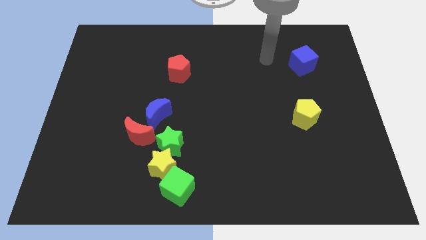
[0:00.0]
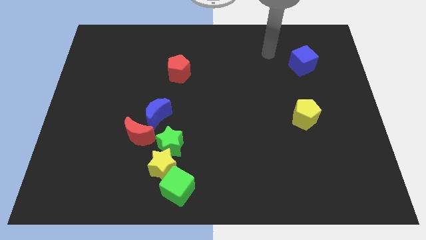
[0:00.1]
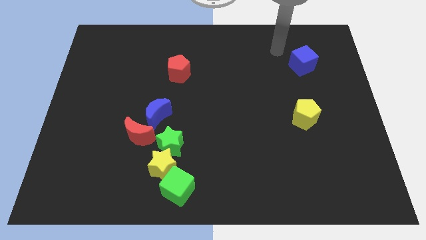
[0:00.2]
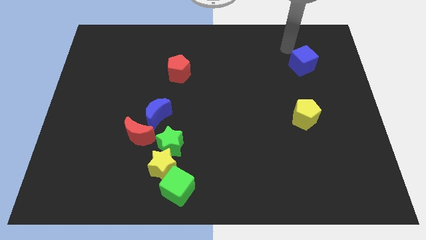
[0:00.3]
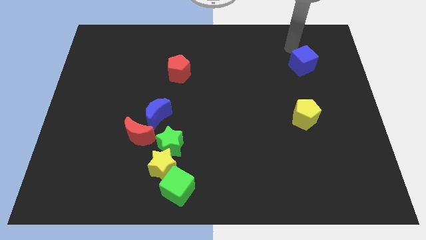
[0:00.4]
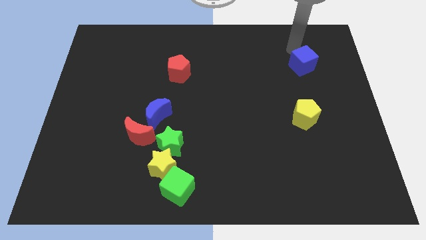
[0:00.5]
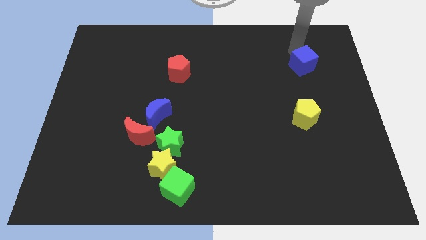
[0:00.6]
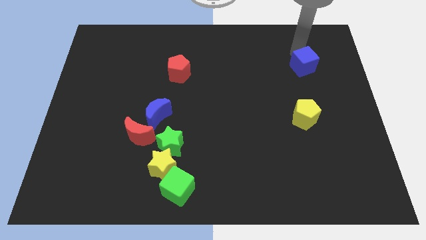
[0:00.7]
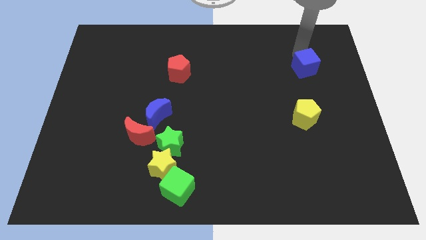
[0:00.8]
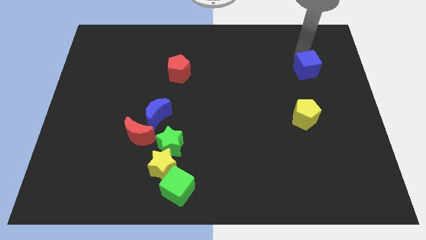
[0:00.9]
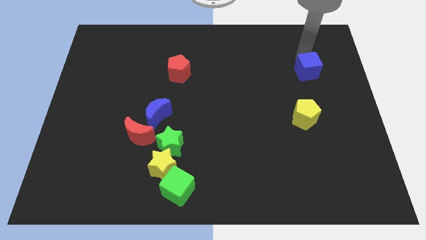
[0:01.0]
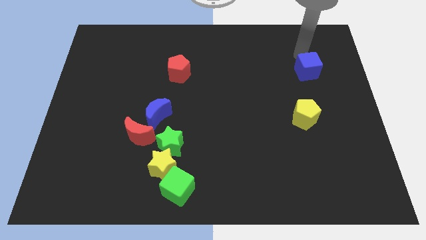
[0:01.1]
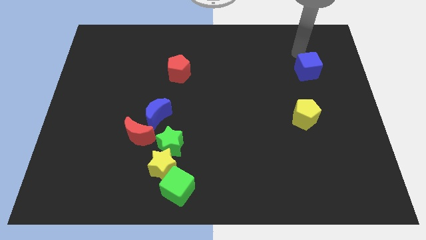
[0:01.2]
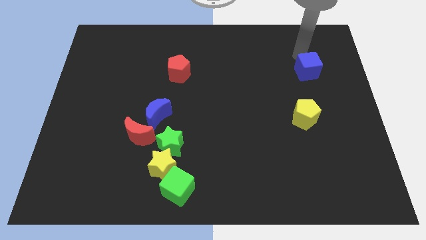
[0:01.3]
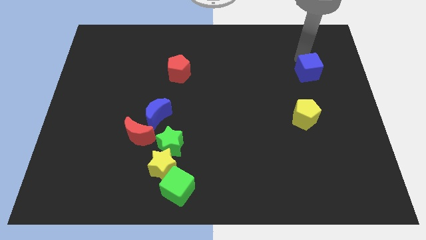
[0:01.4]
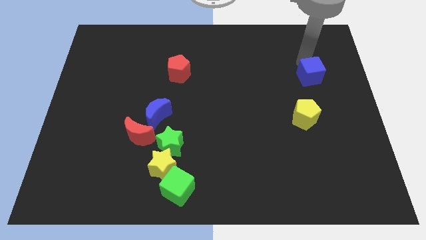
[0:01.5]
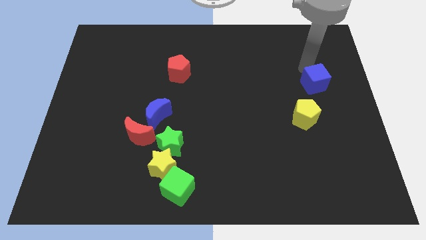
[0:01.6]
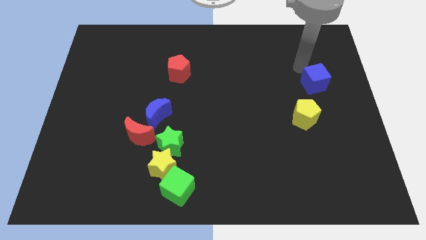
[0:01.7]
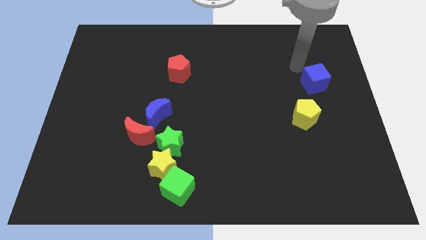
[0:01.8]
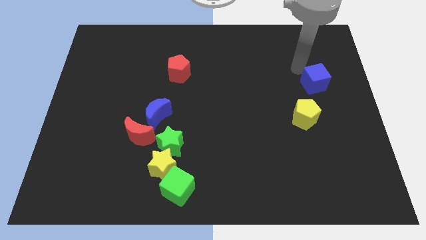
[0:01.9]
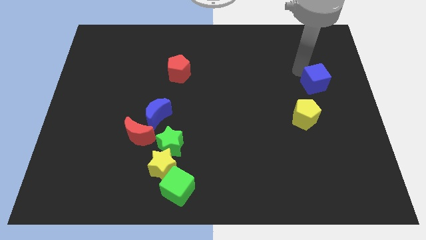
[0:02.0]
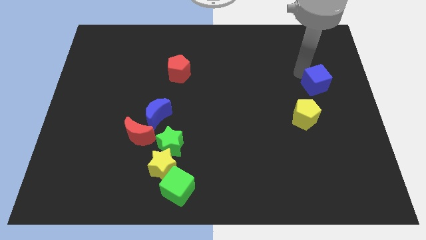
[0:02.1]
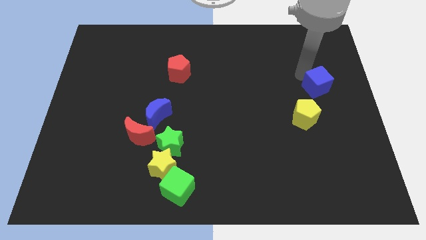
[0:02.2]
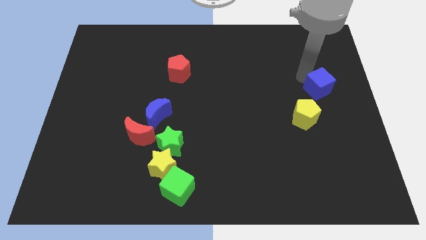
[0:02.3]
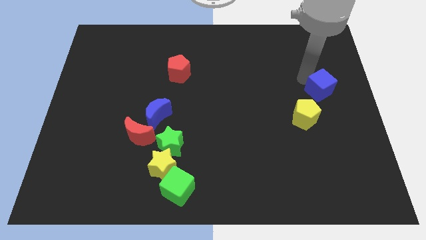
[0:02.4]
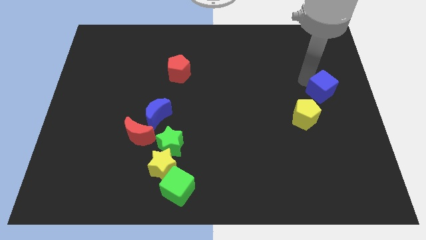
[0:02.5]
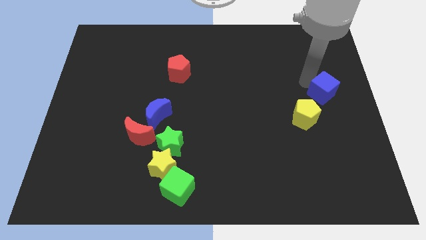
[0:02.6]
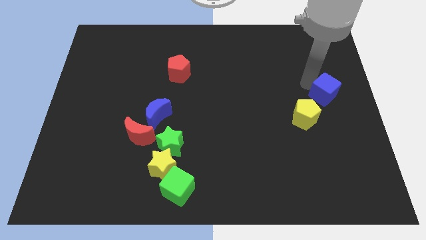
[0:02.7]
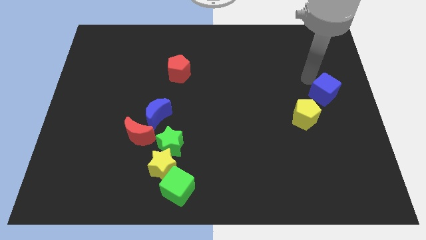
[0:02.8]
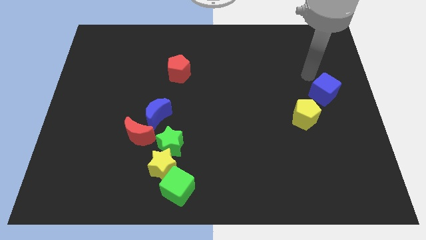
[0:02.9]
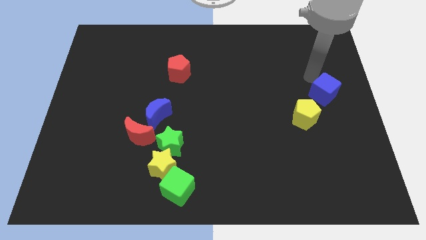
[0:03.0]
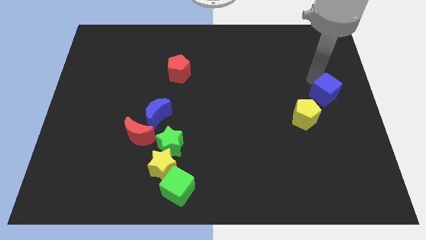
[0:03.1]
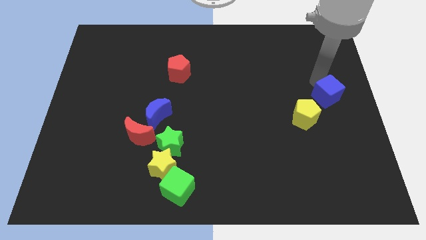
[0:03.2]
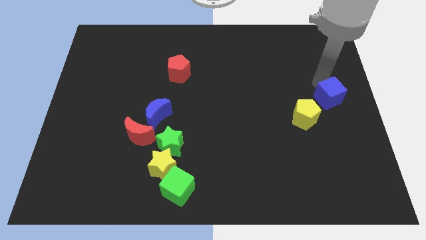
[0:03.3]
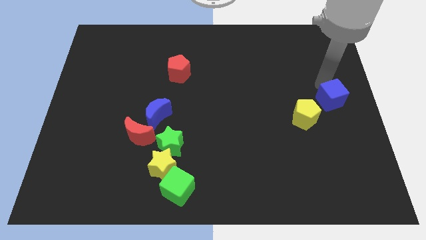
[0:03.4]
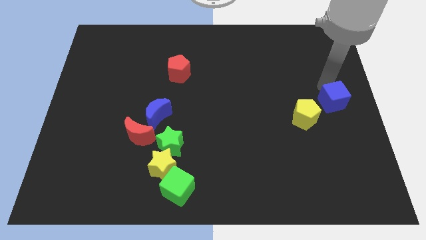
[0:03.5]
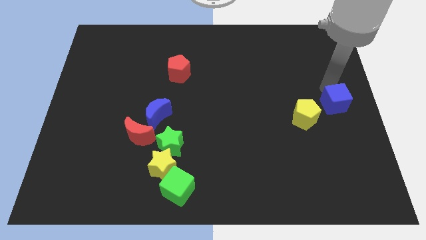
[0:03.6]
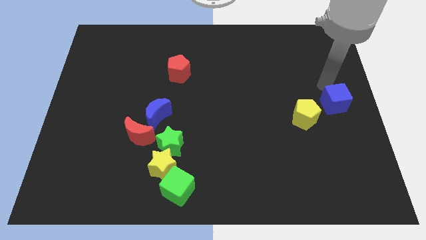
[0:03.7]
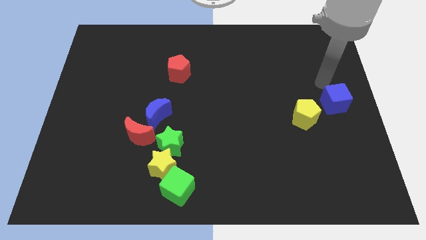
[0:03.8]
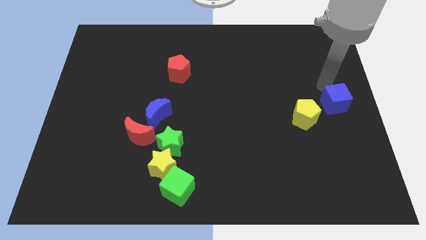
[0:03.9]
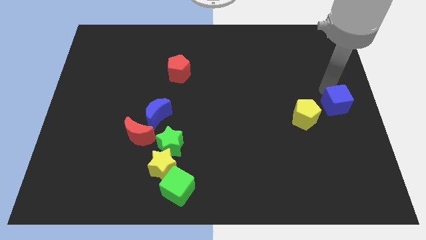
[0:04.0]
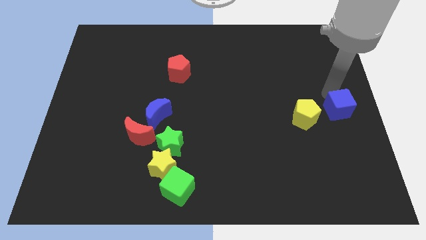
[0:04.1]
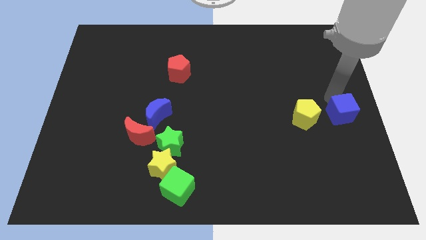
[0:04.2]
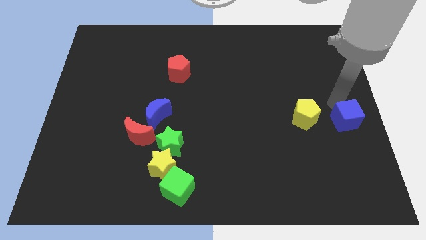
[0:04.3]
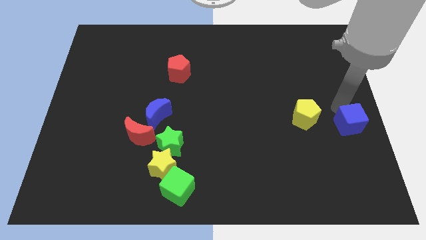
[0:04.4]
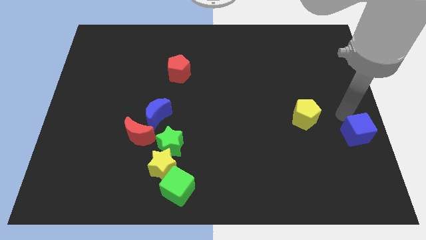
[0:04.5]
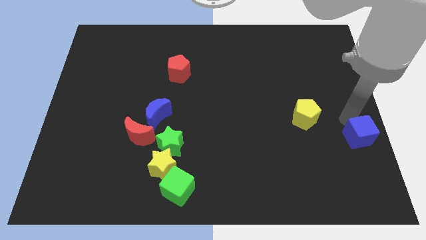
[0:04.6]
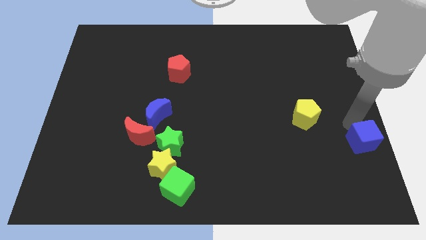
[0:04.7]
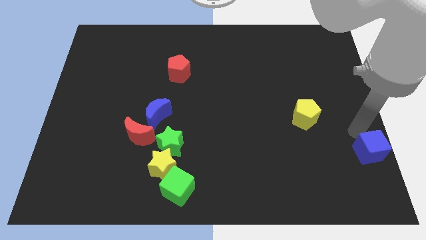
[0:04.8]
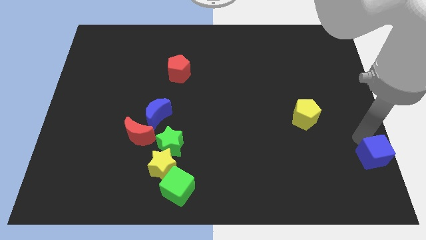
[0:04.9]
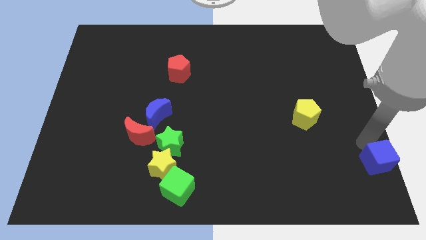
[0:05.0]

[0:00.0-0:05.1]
push the blue cube to the bottom right corner

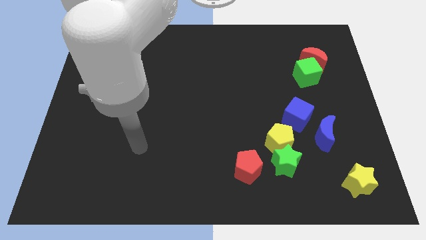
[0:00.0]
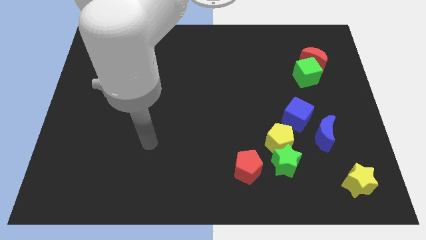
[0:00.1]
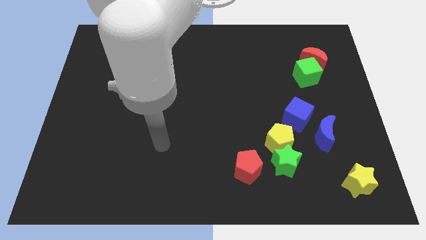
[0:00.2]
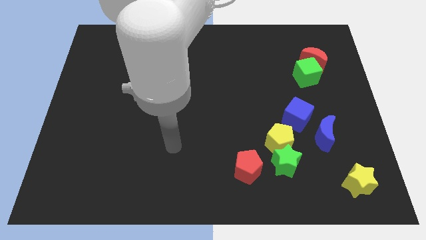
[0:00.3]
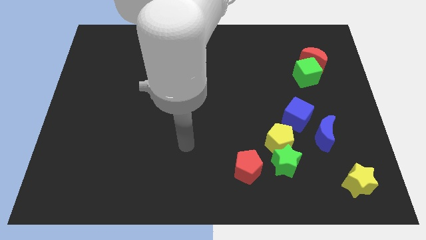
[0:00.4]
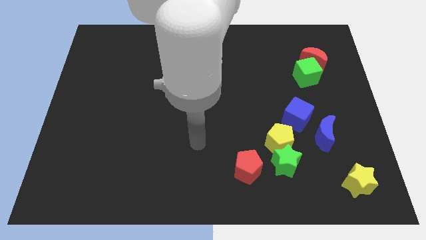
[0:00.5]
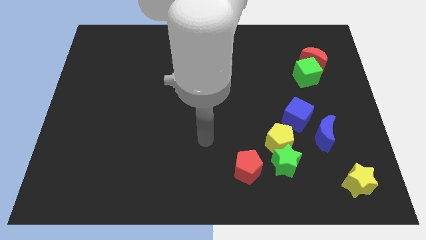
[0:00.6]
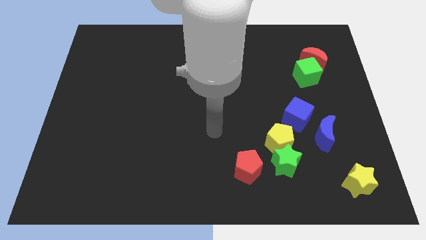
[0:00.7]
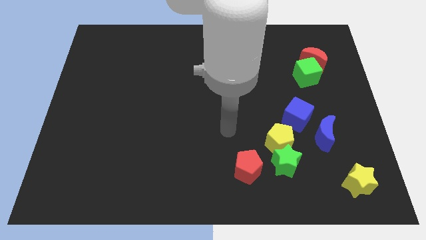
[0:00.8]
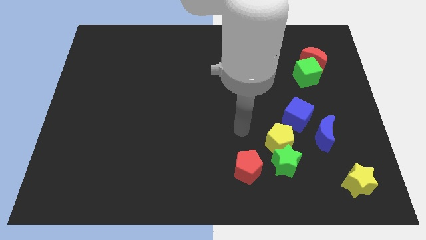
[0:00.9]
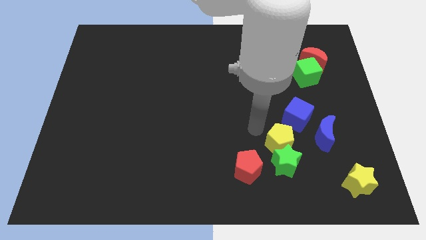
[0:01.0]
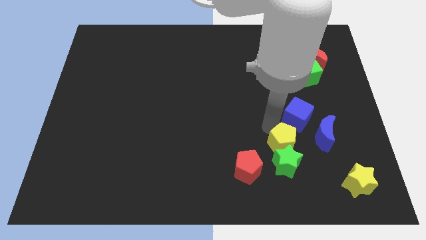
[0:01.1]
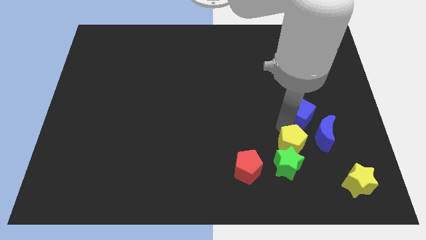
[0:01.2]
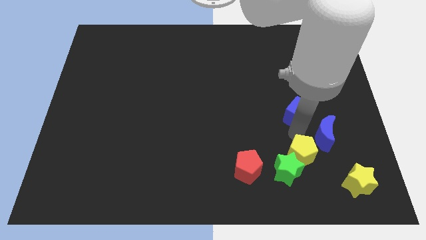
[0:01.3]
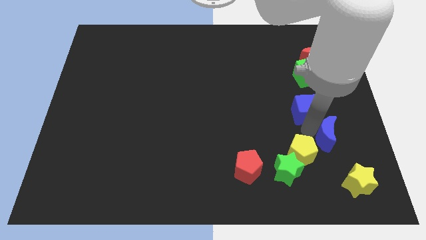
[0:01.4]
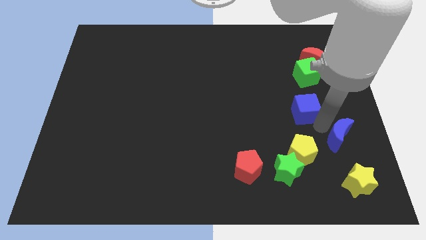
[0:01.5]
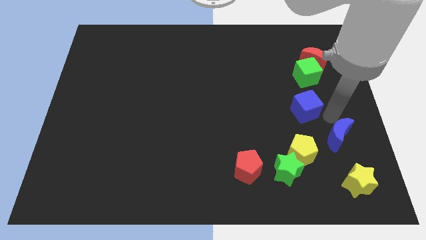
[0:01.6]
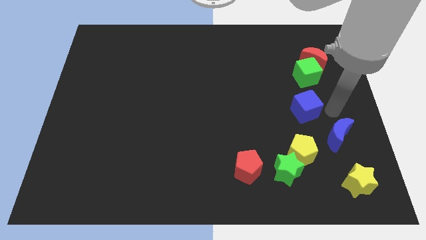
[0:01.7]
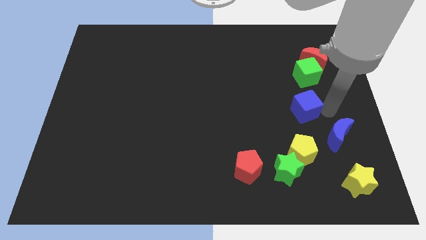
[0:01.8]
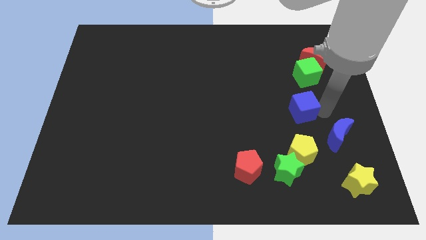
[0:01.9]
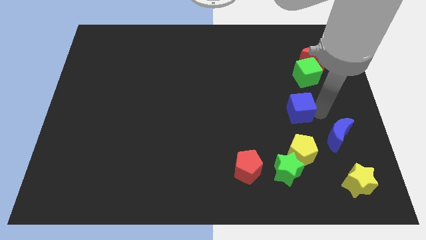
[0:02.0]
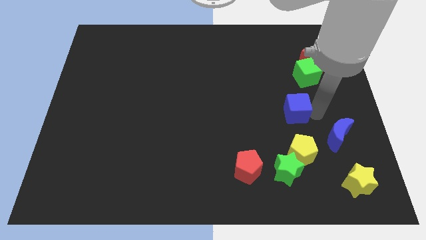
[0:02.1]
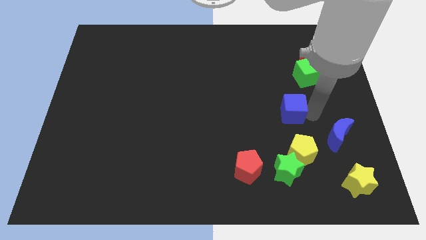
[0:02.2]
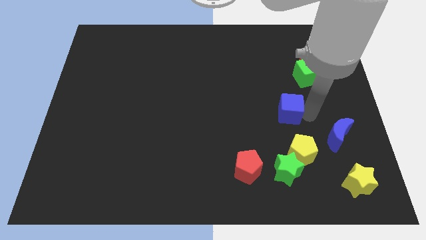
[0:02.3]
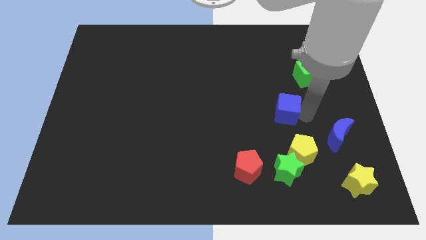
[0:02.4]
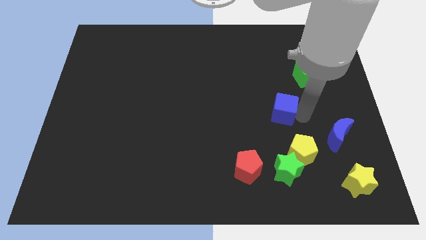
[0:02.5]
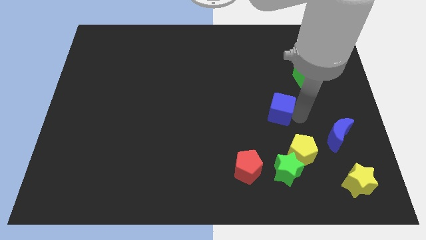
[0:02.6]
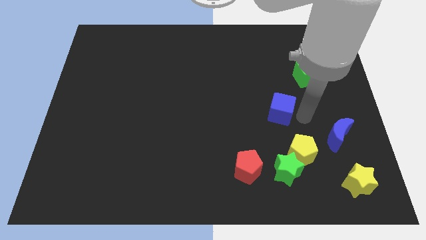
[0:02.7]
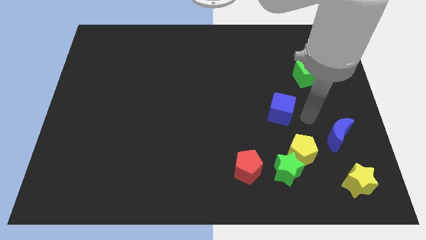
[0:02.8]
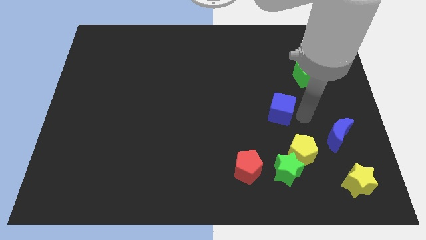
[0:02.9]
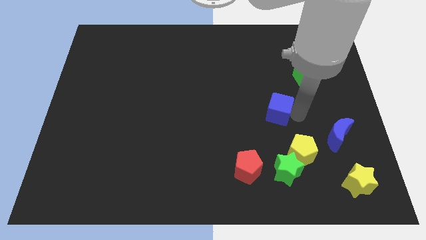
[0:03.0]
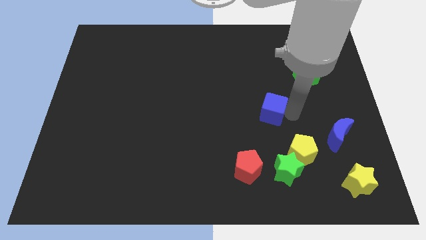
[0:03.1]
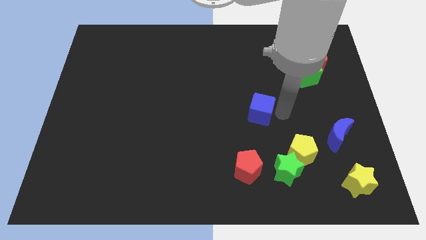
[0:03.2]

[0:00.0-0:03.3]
push the blue cube to the center

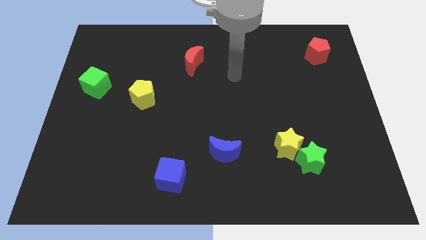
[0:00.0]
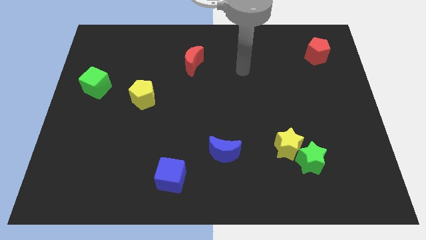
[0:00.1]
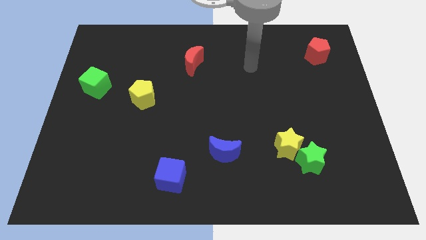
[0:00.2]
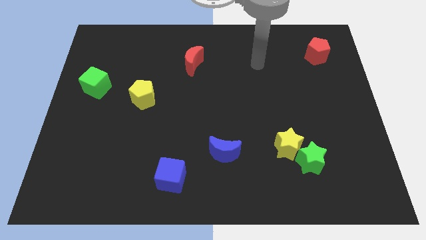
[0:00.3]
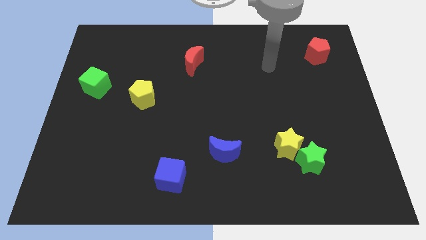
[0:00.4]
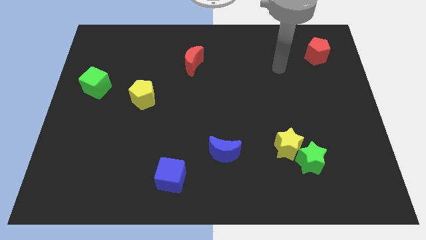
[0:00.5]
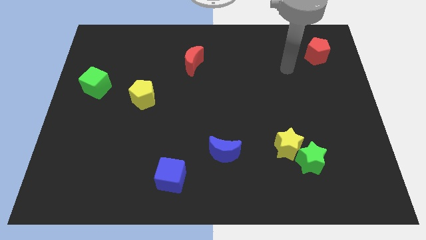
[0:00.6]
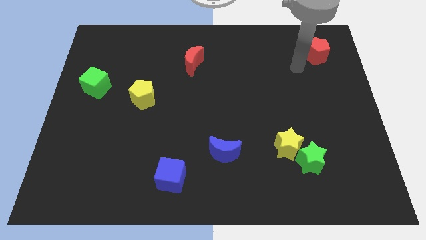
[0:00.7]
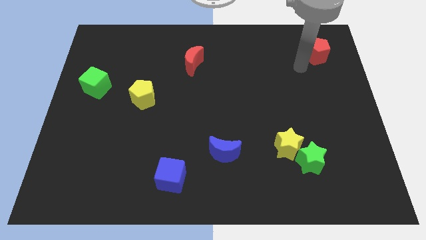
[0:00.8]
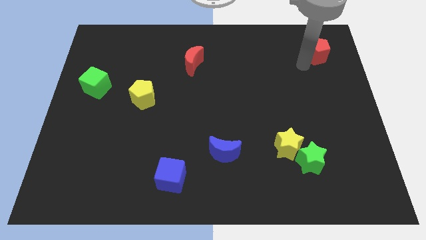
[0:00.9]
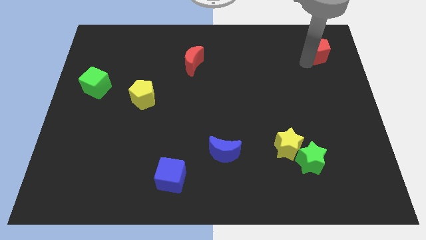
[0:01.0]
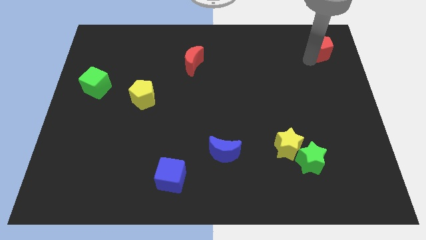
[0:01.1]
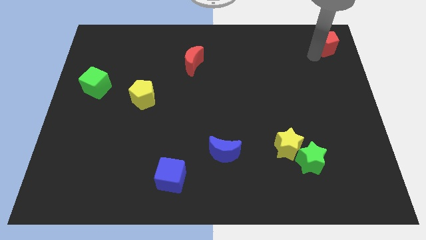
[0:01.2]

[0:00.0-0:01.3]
put the red pentagon to the top right of the board
